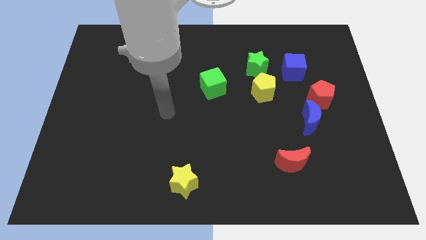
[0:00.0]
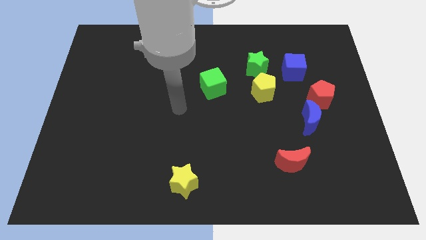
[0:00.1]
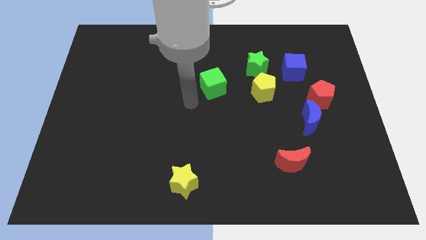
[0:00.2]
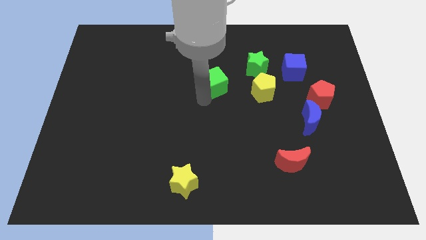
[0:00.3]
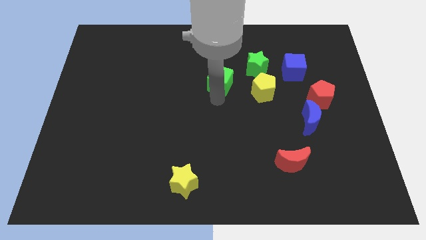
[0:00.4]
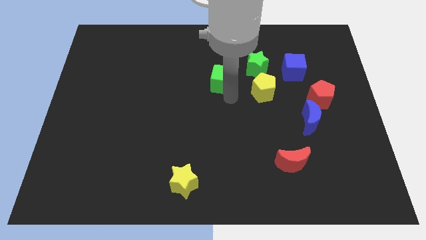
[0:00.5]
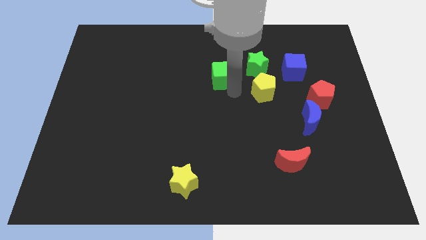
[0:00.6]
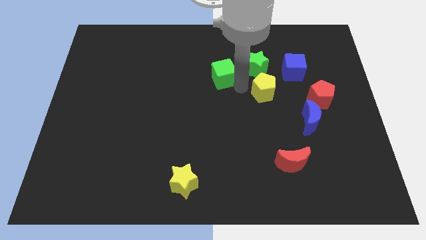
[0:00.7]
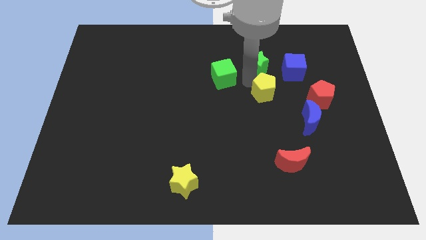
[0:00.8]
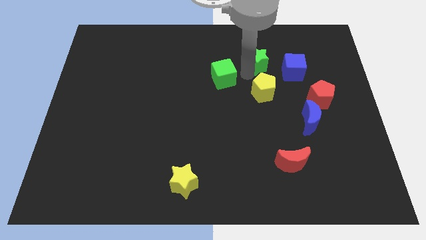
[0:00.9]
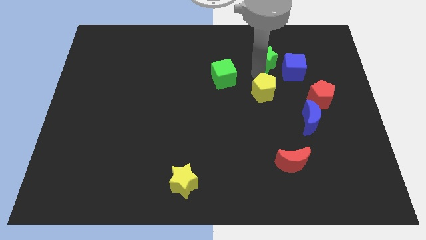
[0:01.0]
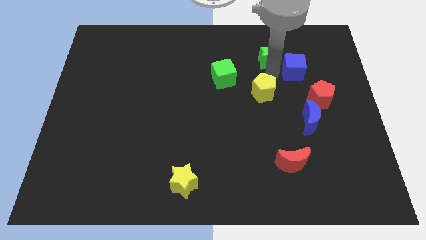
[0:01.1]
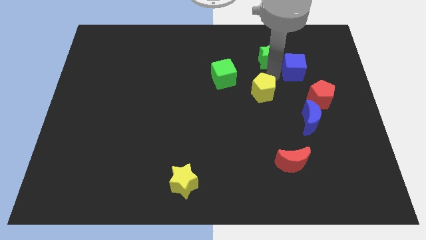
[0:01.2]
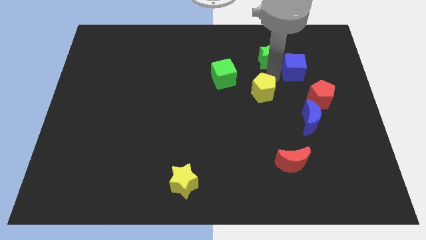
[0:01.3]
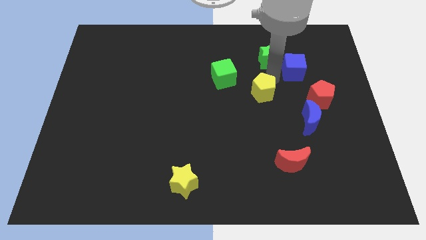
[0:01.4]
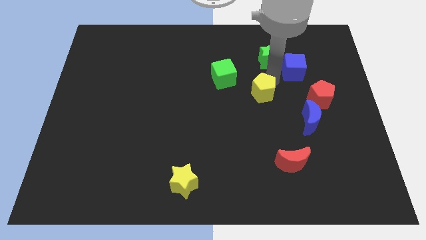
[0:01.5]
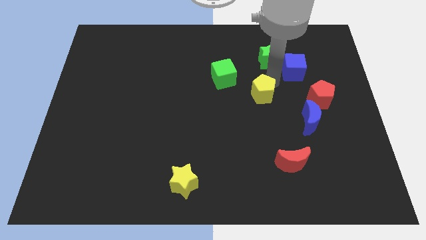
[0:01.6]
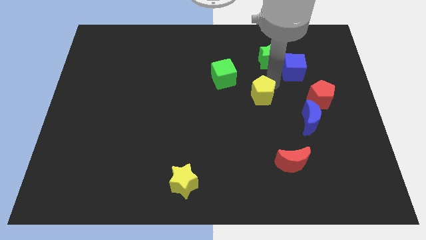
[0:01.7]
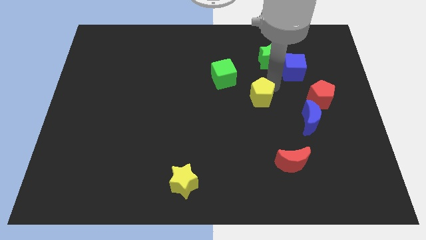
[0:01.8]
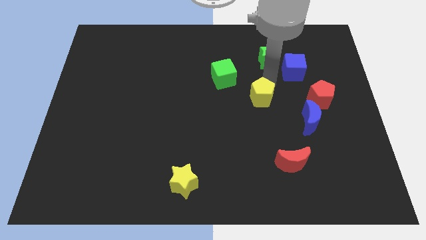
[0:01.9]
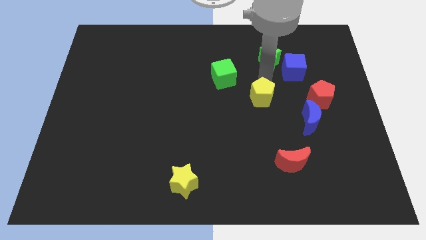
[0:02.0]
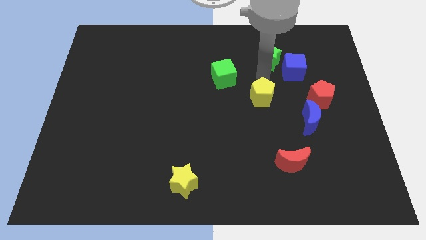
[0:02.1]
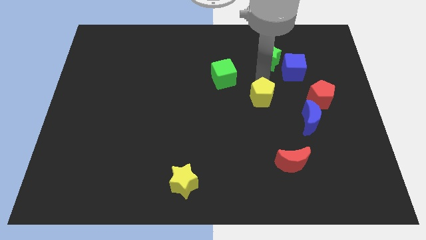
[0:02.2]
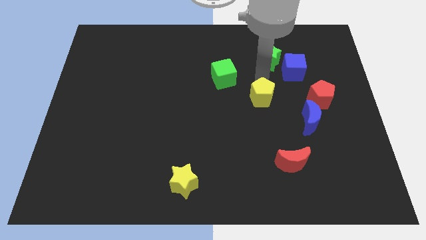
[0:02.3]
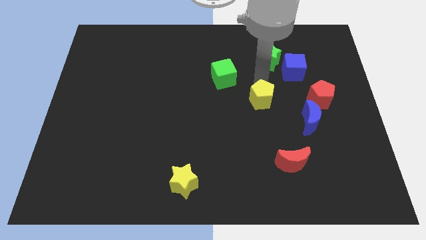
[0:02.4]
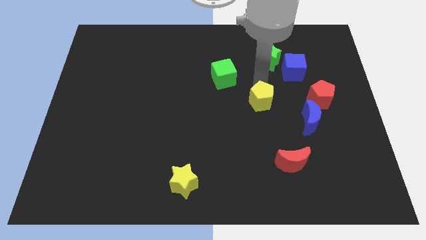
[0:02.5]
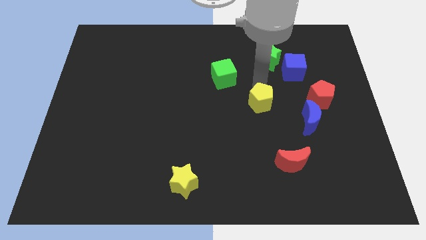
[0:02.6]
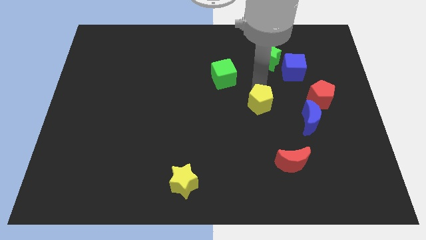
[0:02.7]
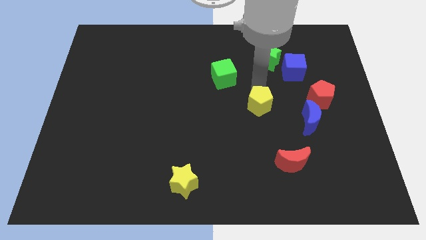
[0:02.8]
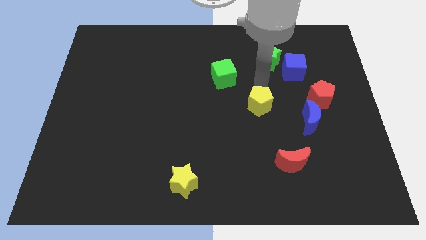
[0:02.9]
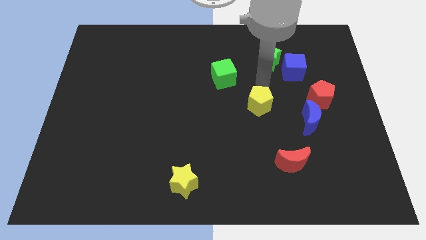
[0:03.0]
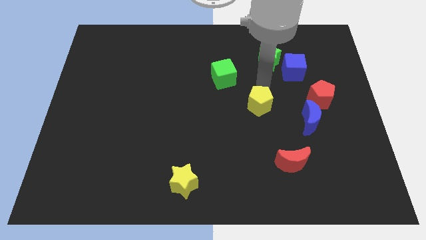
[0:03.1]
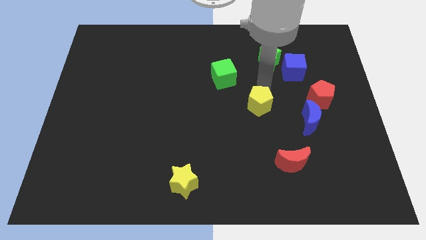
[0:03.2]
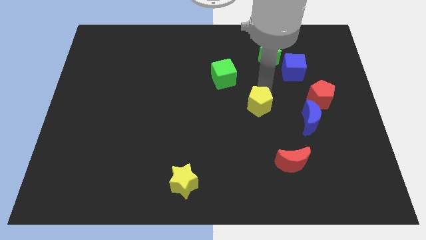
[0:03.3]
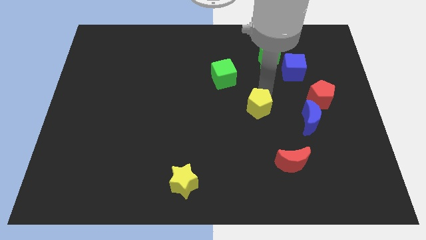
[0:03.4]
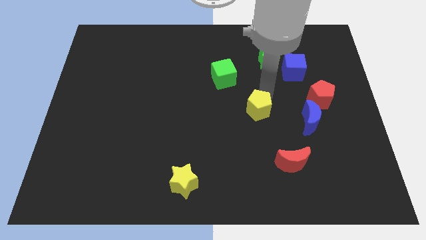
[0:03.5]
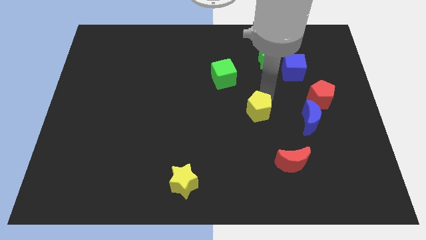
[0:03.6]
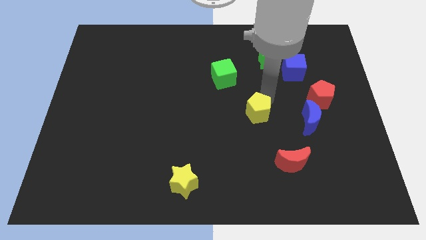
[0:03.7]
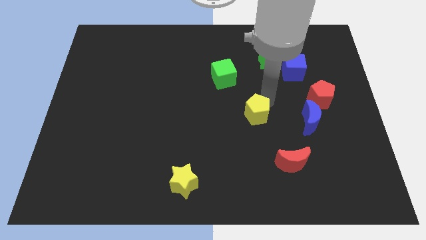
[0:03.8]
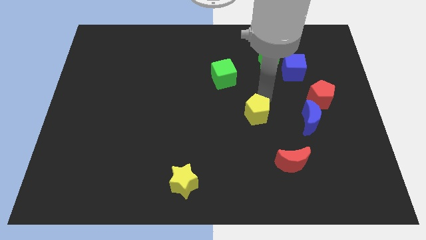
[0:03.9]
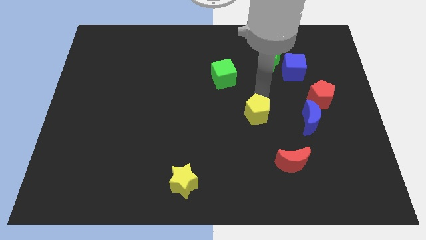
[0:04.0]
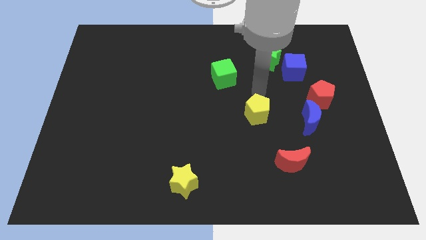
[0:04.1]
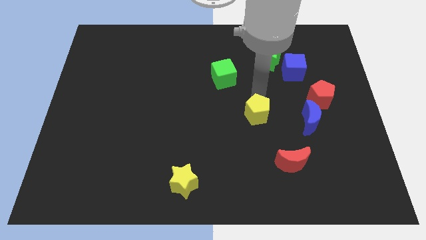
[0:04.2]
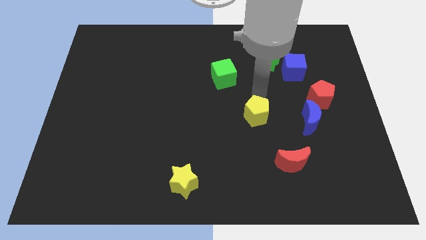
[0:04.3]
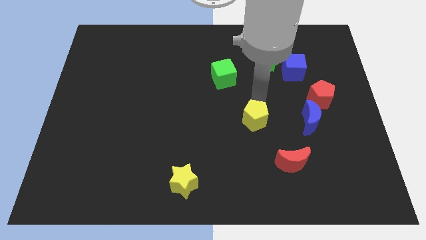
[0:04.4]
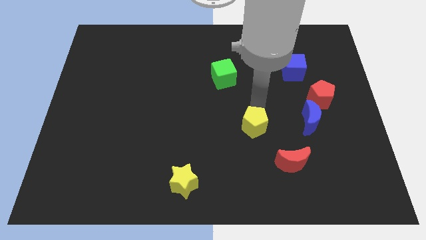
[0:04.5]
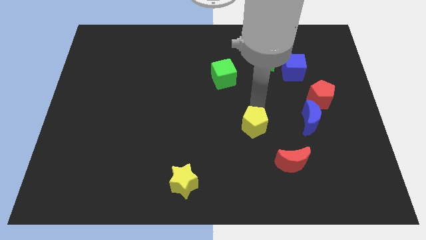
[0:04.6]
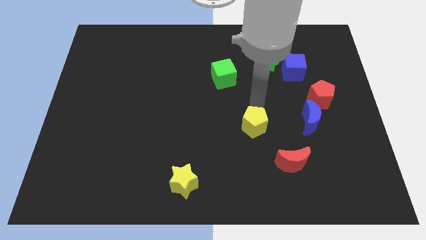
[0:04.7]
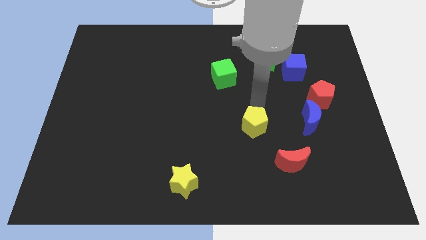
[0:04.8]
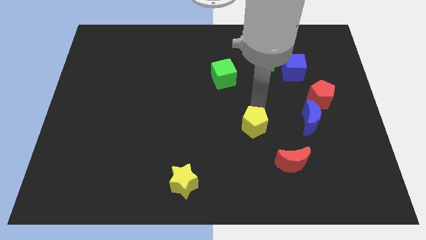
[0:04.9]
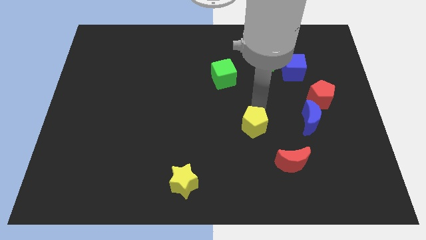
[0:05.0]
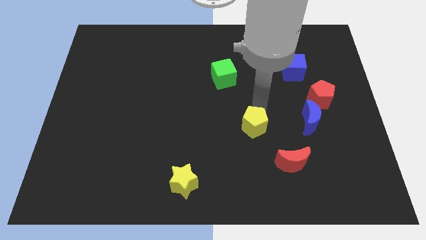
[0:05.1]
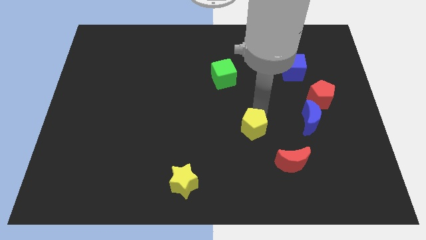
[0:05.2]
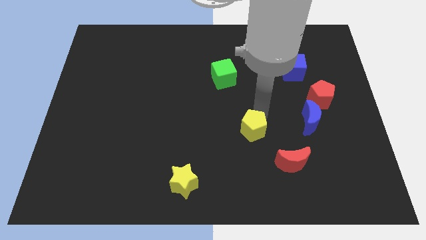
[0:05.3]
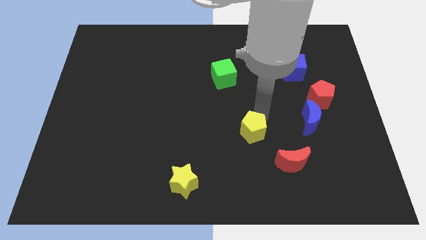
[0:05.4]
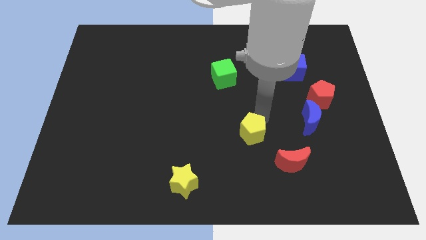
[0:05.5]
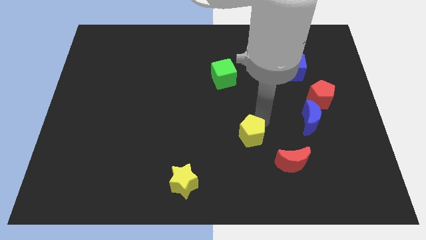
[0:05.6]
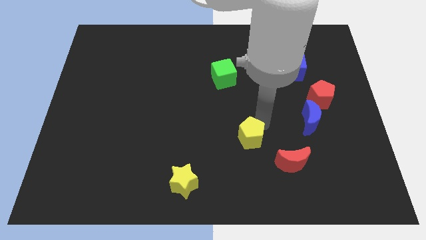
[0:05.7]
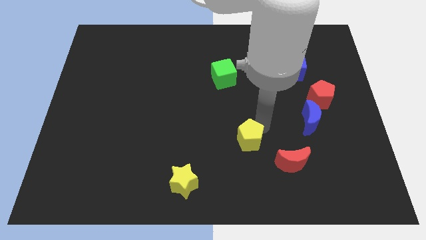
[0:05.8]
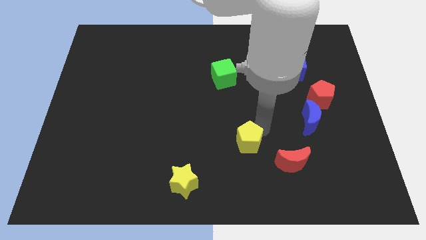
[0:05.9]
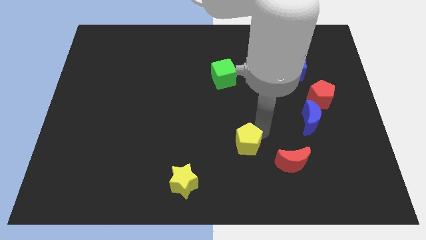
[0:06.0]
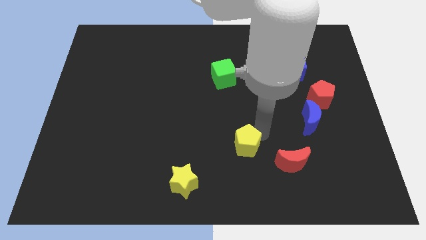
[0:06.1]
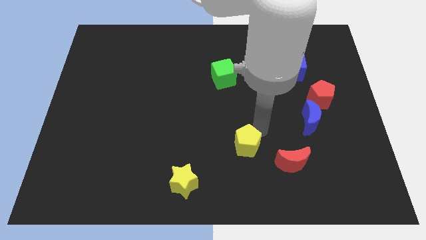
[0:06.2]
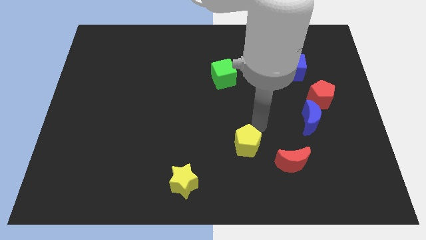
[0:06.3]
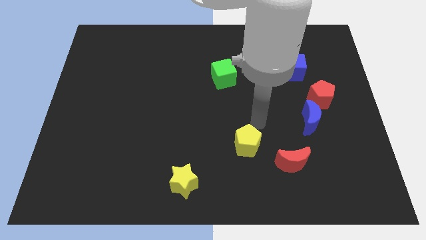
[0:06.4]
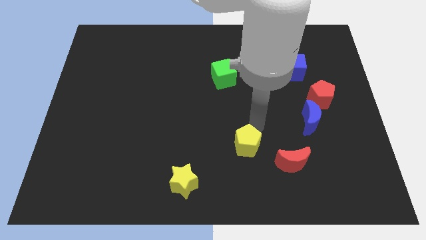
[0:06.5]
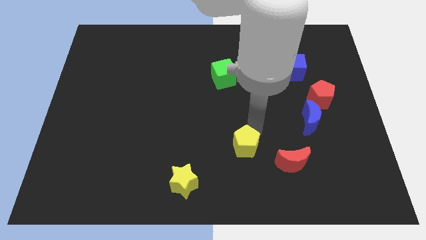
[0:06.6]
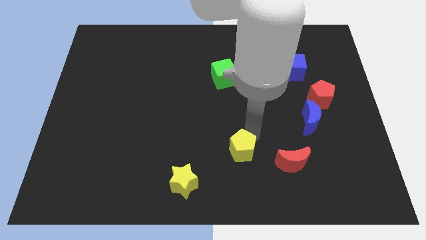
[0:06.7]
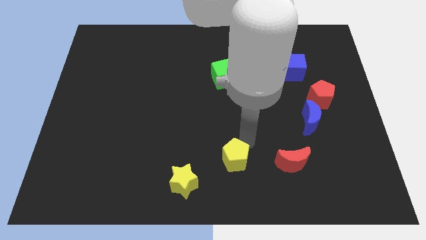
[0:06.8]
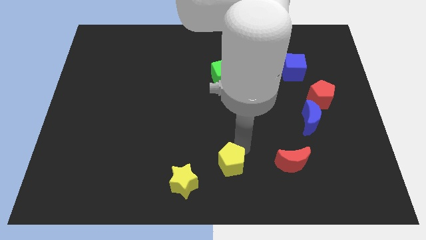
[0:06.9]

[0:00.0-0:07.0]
put the yellow pentagon to the right of the yellow star

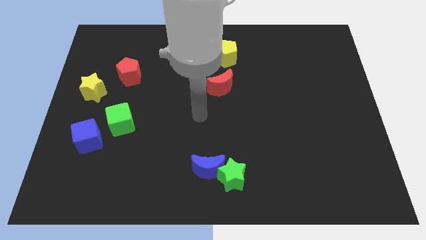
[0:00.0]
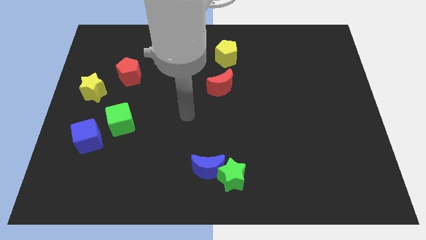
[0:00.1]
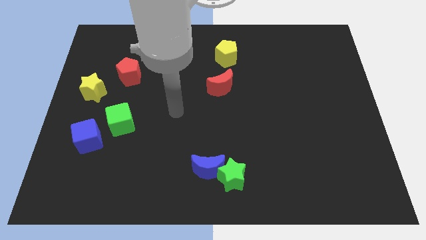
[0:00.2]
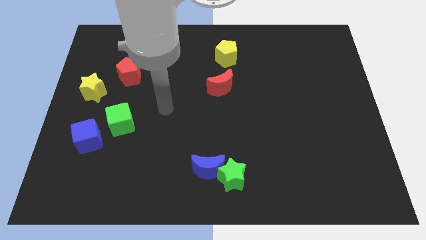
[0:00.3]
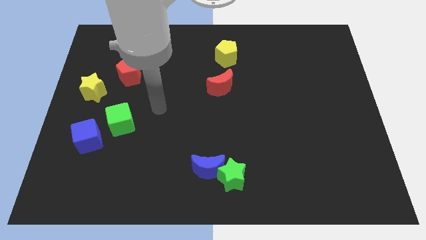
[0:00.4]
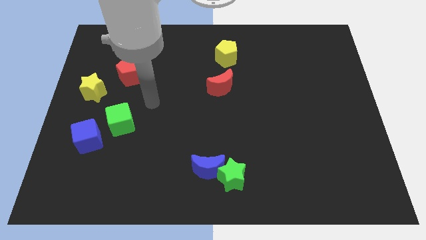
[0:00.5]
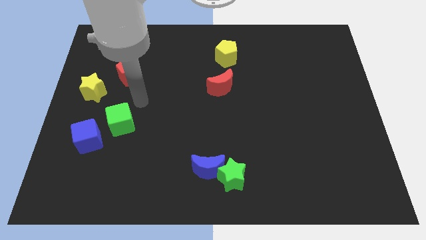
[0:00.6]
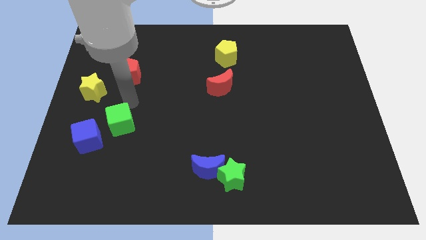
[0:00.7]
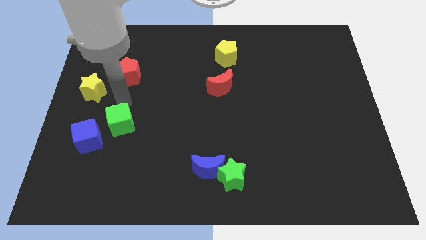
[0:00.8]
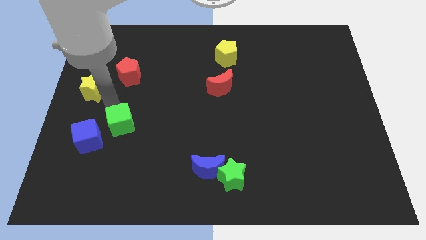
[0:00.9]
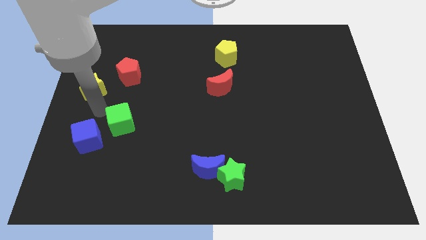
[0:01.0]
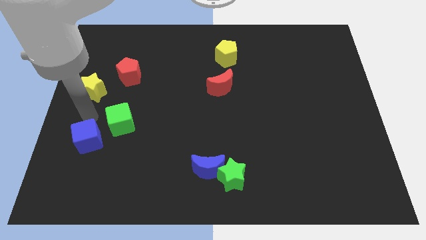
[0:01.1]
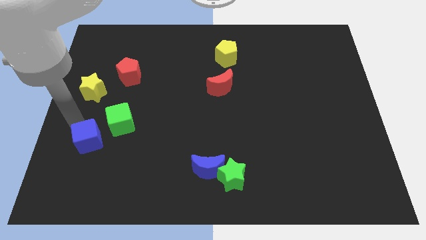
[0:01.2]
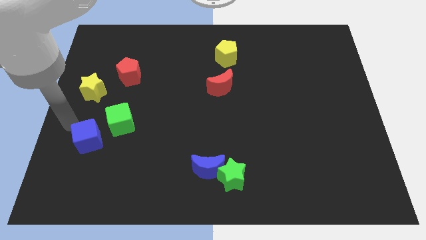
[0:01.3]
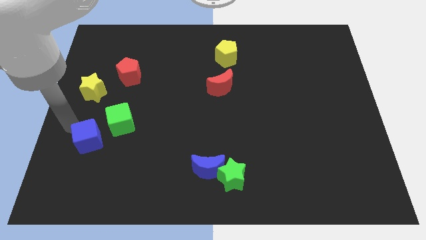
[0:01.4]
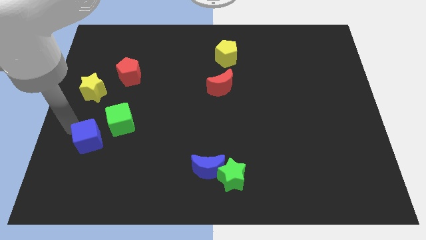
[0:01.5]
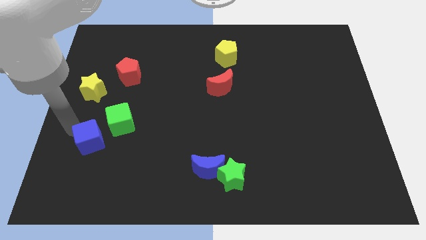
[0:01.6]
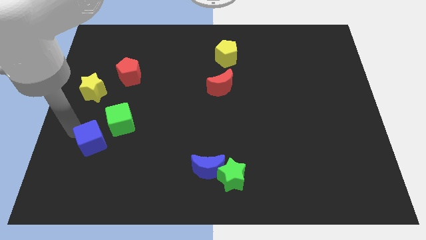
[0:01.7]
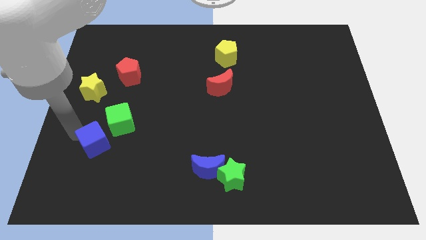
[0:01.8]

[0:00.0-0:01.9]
move the blue cube to the bottom of the green cube
